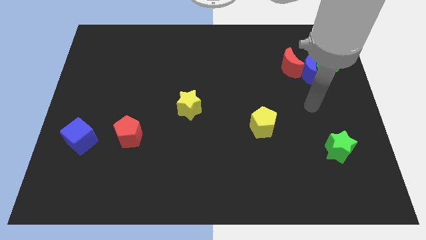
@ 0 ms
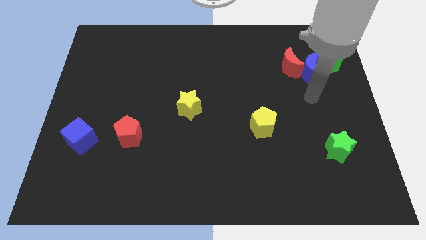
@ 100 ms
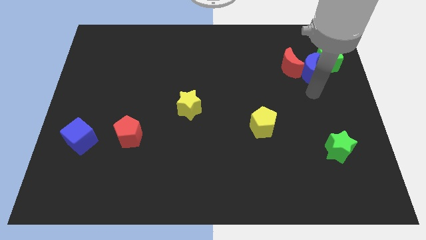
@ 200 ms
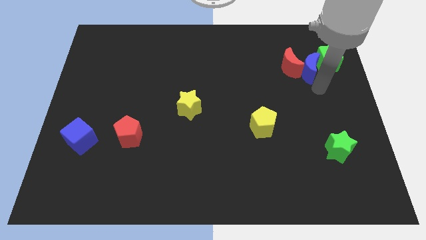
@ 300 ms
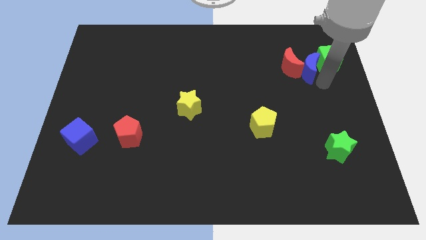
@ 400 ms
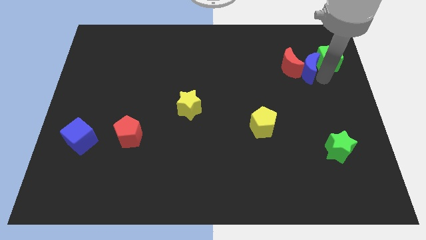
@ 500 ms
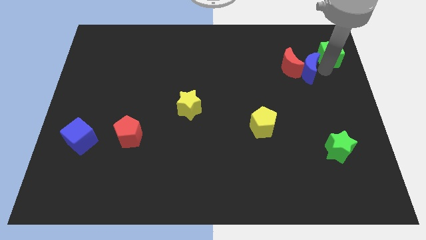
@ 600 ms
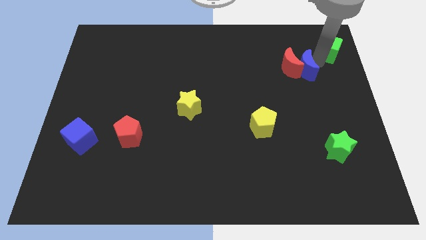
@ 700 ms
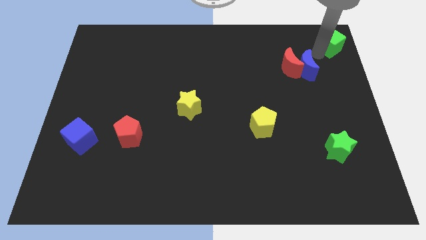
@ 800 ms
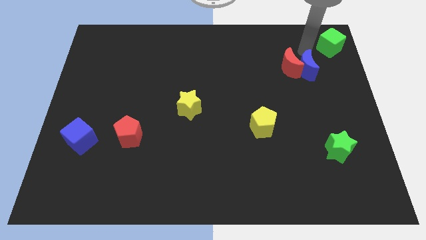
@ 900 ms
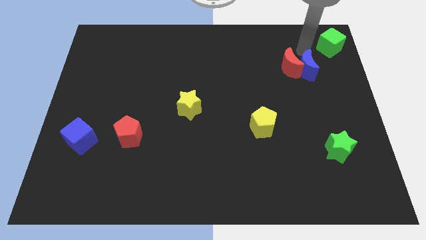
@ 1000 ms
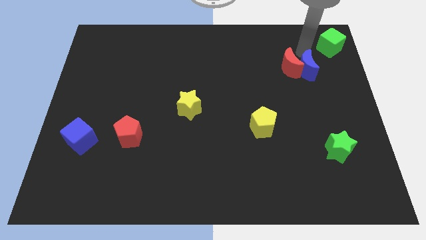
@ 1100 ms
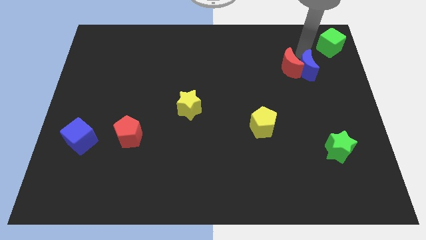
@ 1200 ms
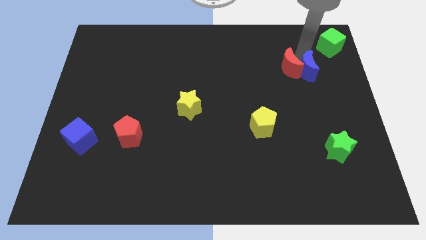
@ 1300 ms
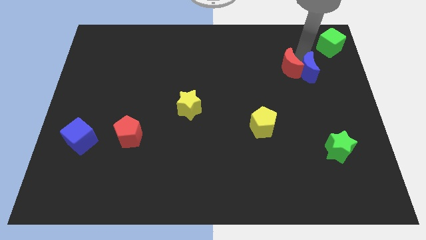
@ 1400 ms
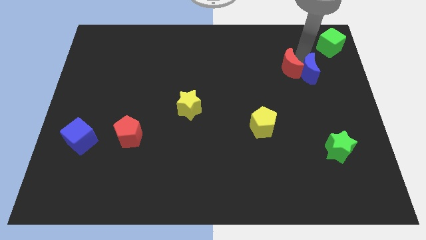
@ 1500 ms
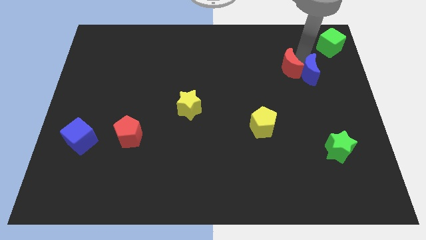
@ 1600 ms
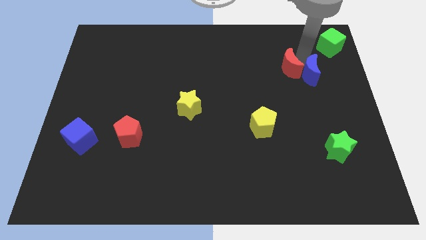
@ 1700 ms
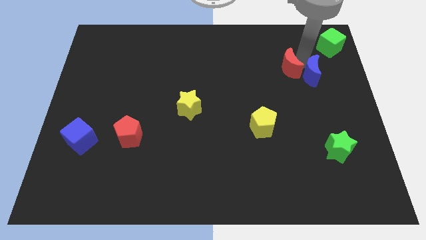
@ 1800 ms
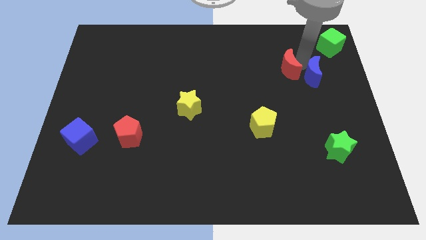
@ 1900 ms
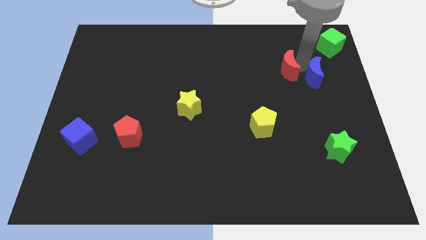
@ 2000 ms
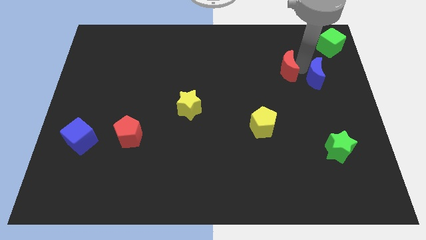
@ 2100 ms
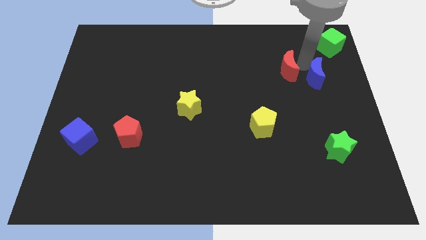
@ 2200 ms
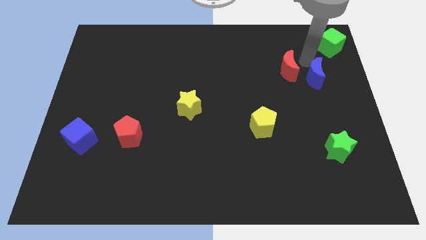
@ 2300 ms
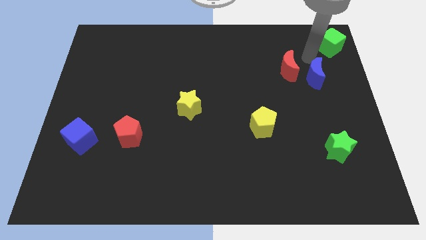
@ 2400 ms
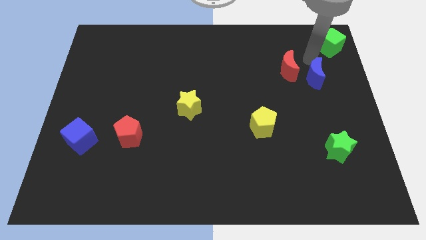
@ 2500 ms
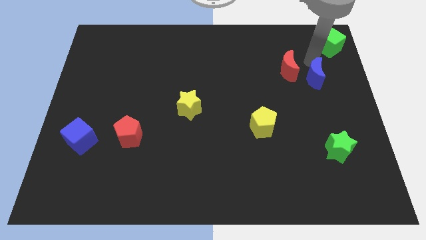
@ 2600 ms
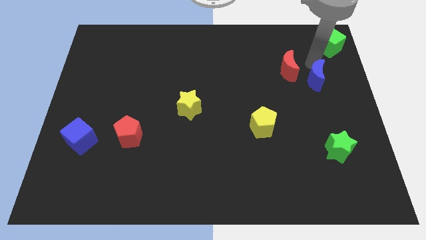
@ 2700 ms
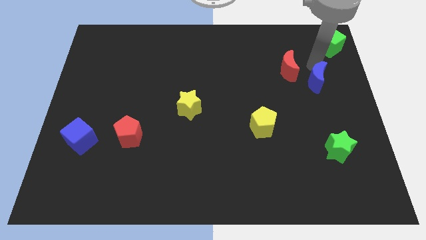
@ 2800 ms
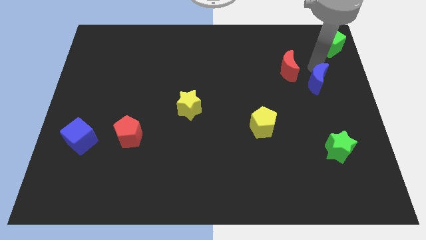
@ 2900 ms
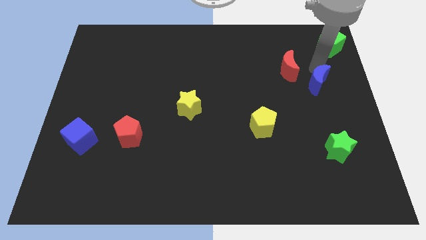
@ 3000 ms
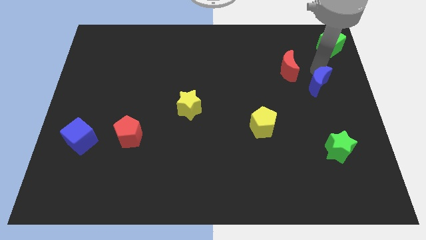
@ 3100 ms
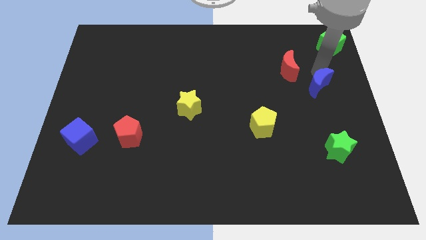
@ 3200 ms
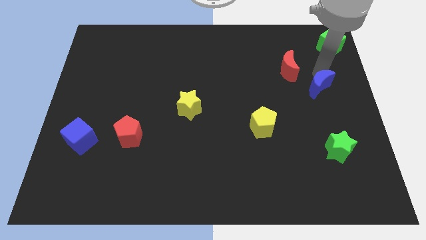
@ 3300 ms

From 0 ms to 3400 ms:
separate the blue moon from the red moon and green cube

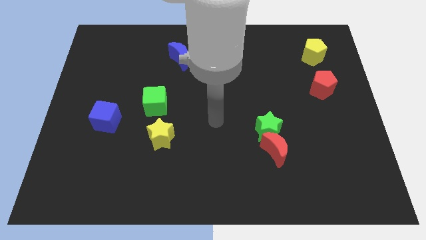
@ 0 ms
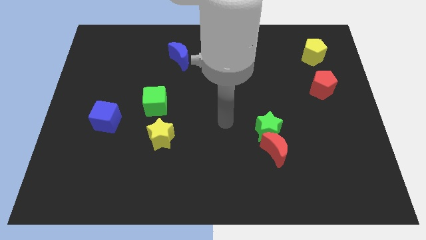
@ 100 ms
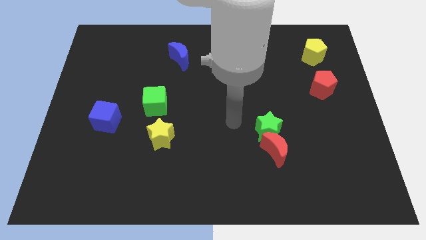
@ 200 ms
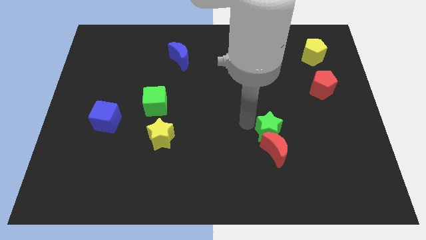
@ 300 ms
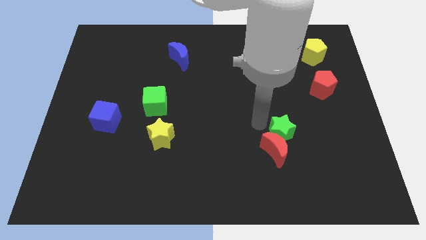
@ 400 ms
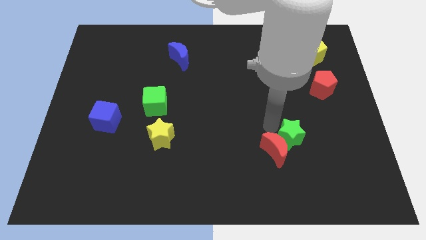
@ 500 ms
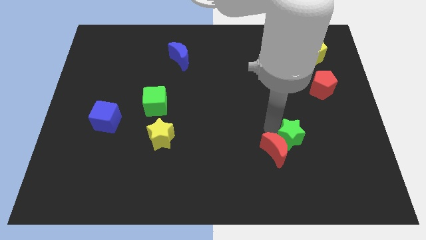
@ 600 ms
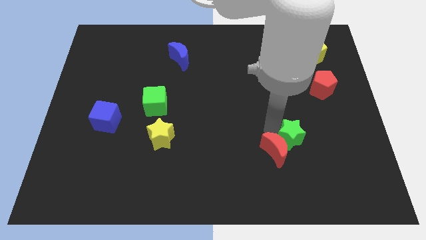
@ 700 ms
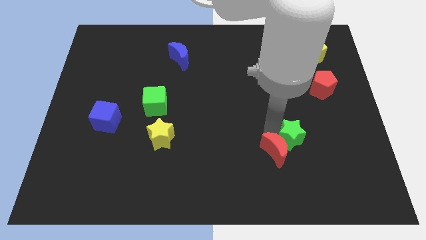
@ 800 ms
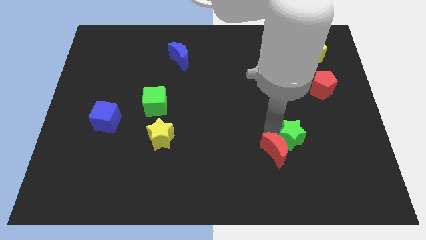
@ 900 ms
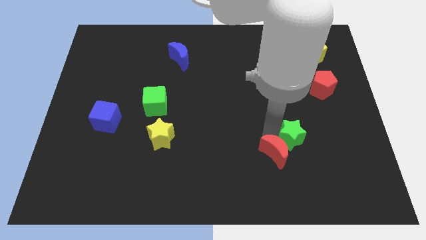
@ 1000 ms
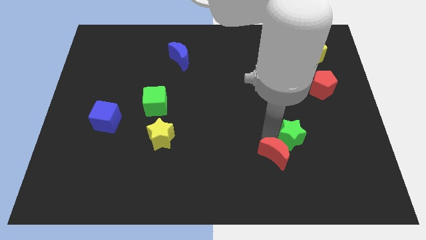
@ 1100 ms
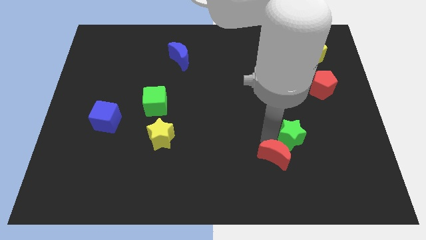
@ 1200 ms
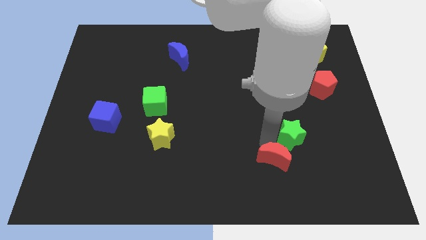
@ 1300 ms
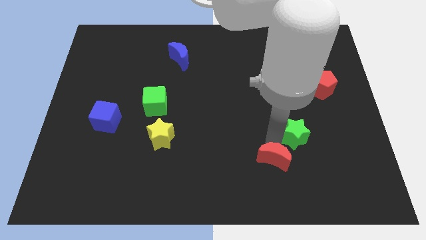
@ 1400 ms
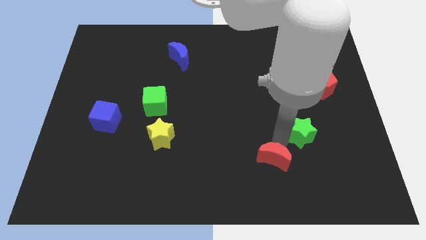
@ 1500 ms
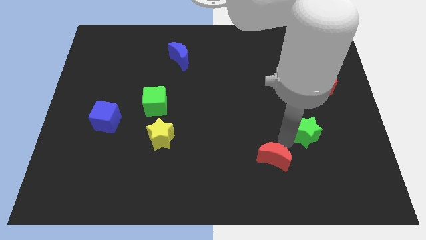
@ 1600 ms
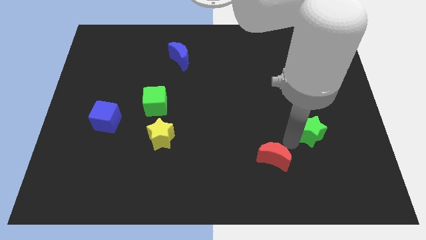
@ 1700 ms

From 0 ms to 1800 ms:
separate the red moon from the green star

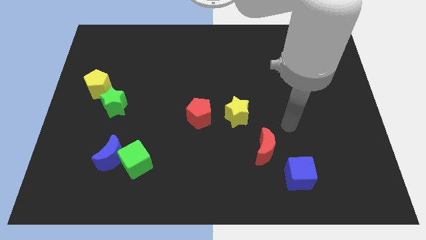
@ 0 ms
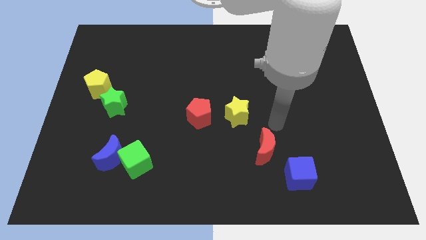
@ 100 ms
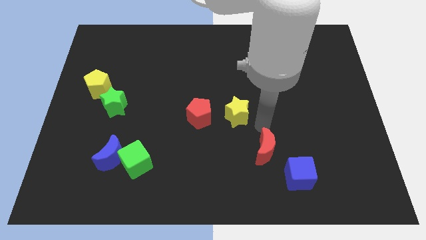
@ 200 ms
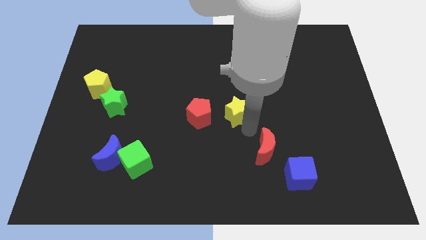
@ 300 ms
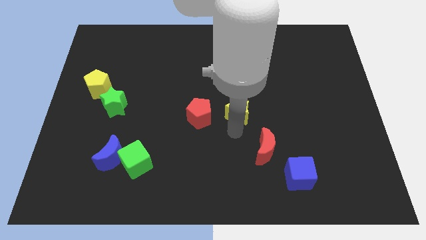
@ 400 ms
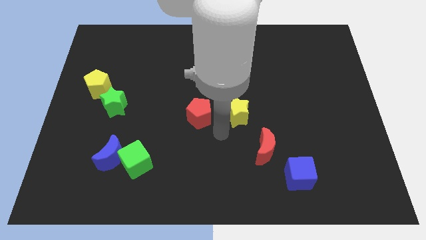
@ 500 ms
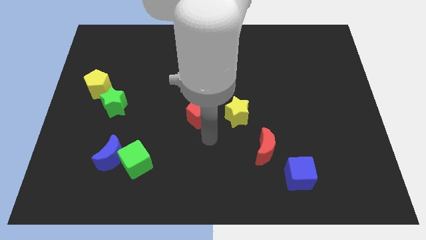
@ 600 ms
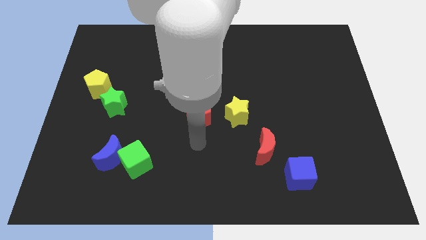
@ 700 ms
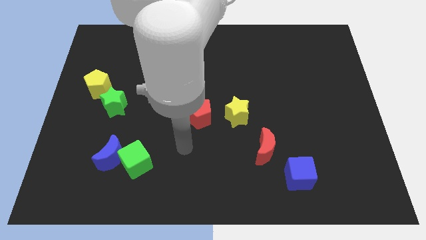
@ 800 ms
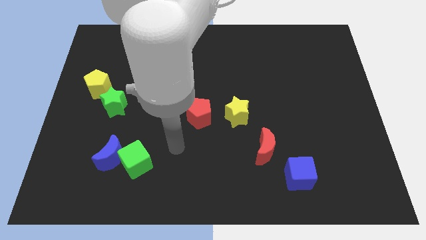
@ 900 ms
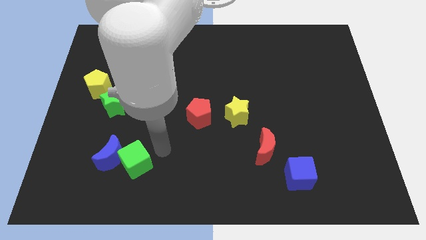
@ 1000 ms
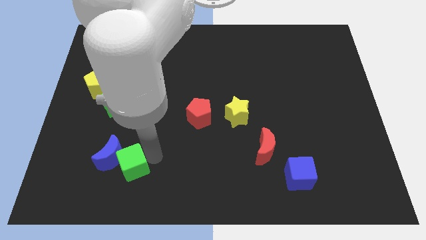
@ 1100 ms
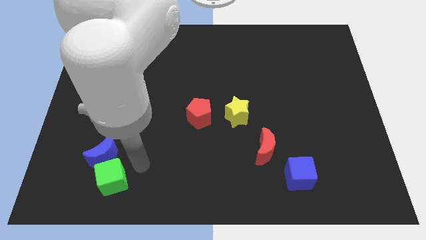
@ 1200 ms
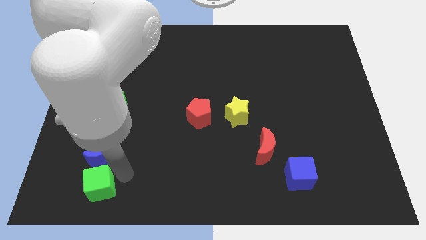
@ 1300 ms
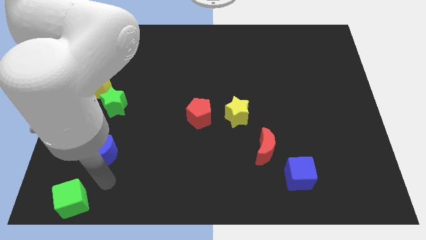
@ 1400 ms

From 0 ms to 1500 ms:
separate the blue moon from the green cube

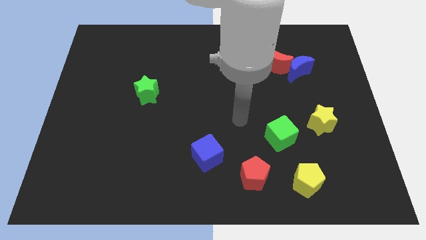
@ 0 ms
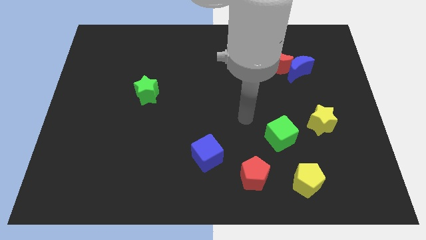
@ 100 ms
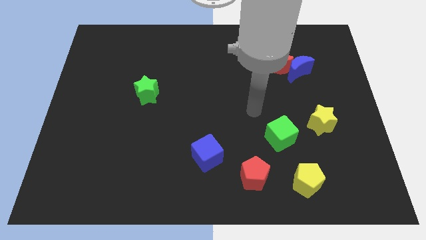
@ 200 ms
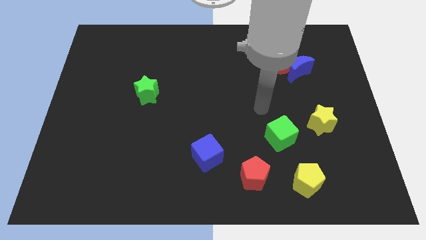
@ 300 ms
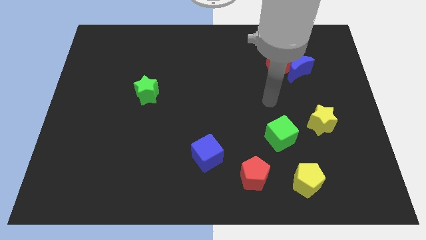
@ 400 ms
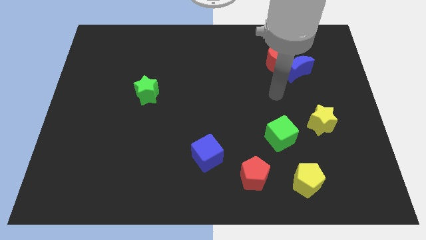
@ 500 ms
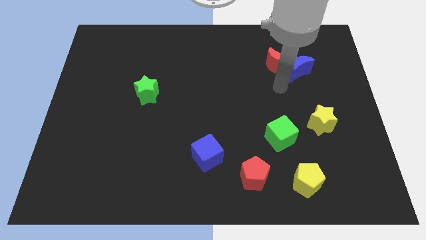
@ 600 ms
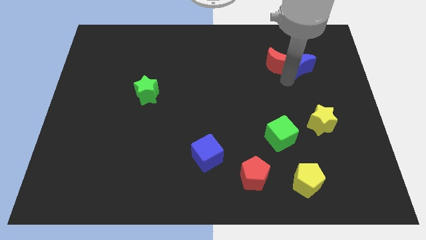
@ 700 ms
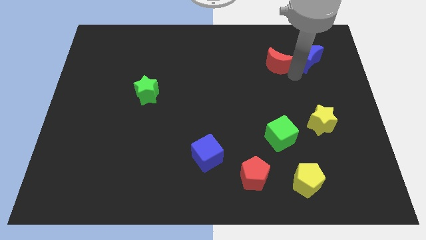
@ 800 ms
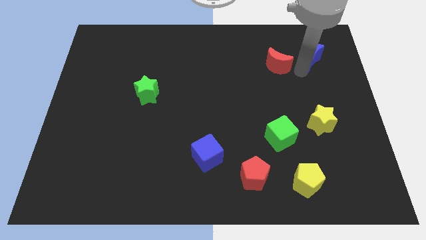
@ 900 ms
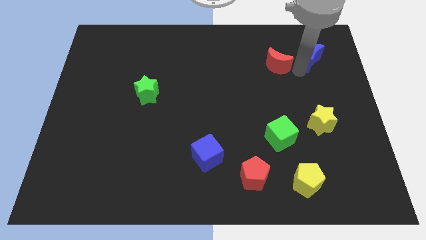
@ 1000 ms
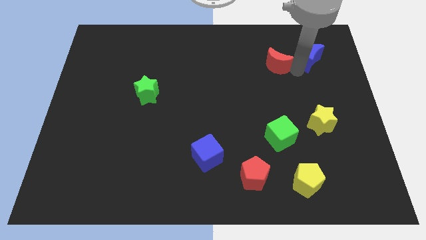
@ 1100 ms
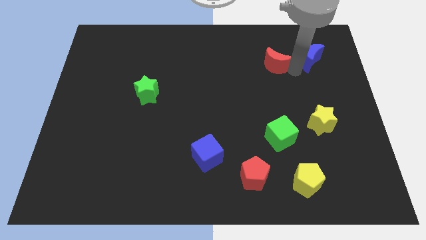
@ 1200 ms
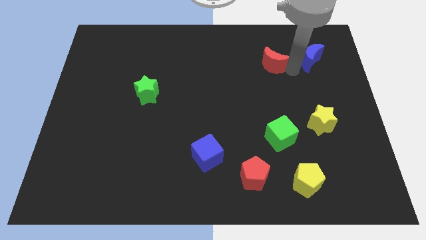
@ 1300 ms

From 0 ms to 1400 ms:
pull the red moon apart from the blue moon

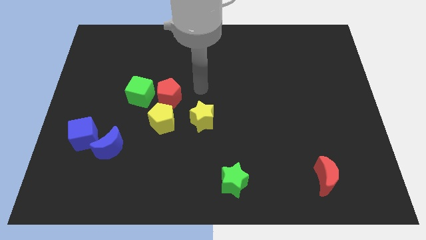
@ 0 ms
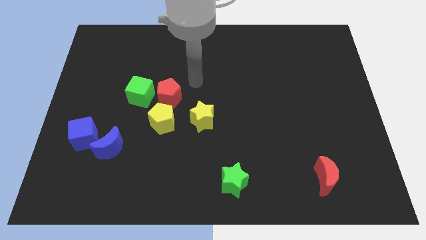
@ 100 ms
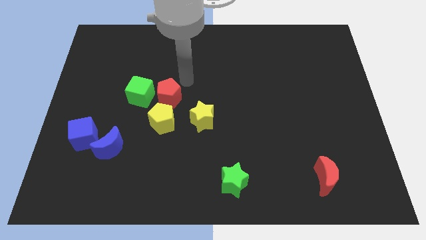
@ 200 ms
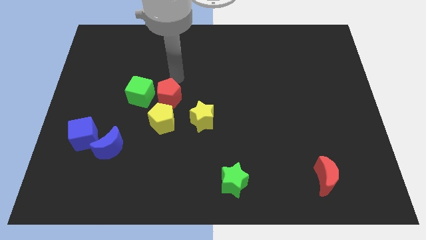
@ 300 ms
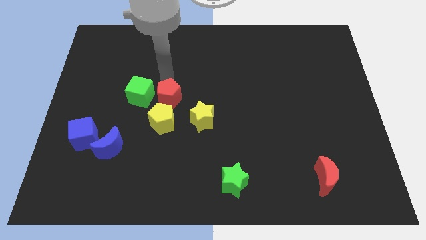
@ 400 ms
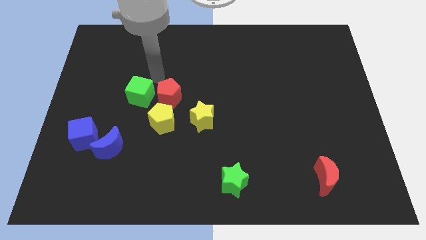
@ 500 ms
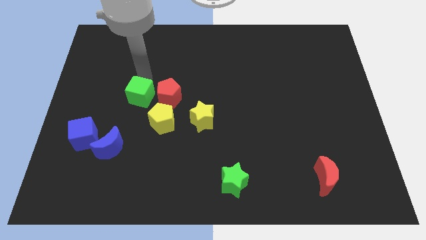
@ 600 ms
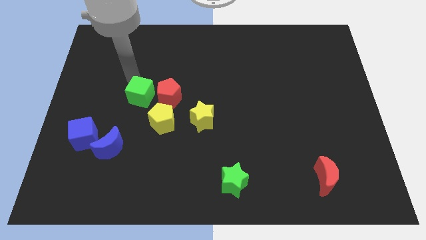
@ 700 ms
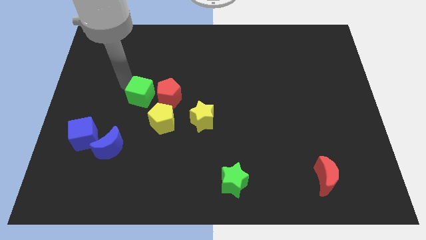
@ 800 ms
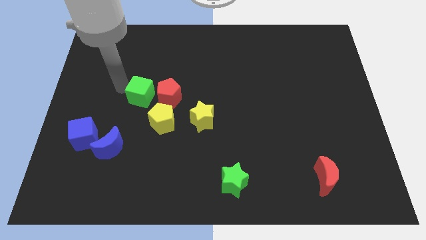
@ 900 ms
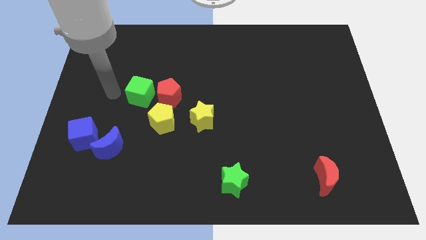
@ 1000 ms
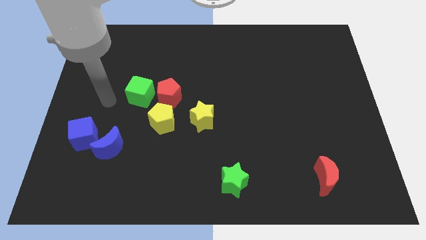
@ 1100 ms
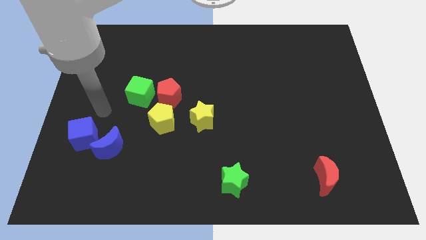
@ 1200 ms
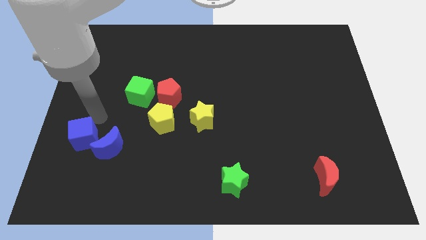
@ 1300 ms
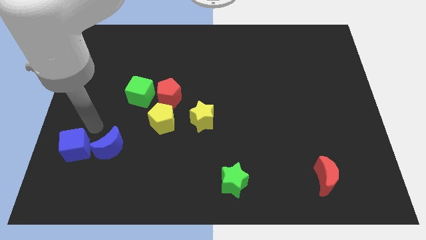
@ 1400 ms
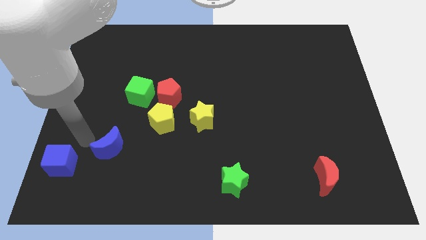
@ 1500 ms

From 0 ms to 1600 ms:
separate the blue moon from the blue cube
